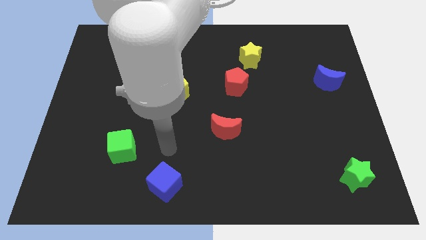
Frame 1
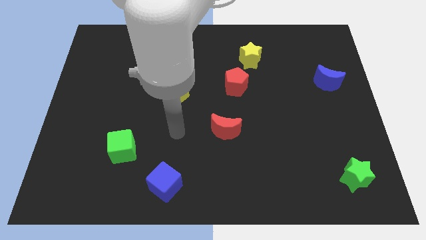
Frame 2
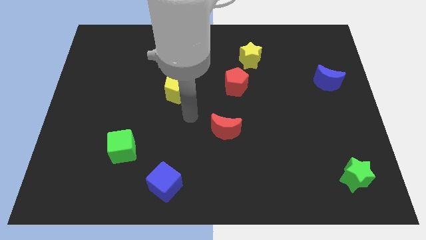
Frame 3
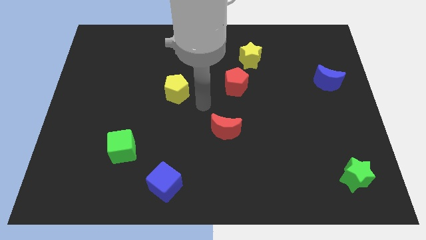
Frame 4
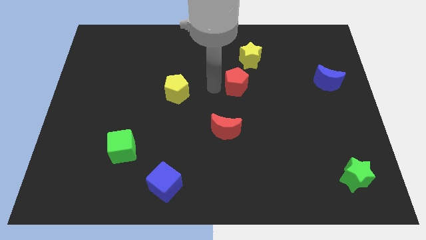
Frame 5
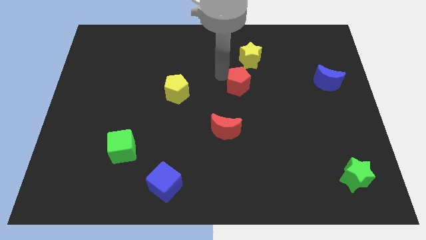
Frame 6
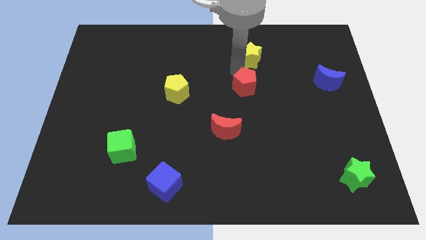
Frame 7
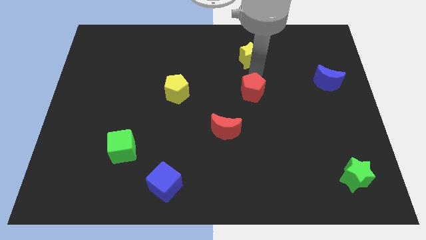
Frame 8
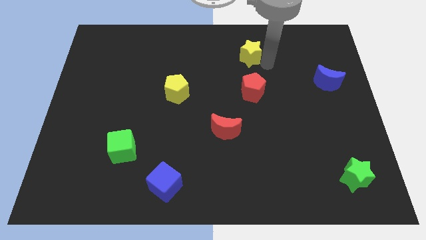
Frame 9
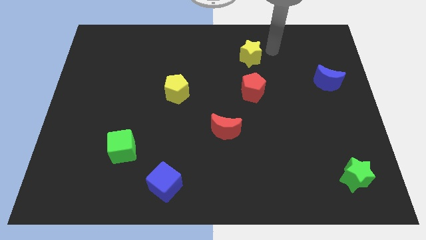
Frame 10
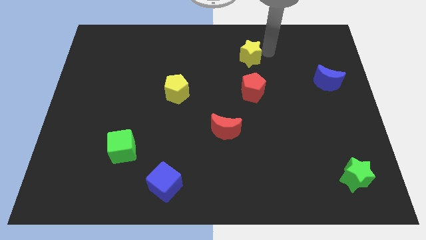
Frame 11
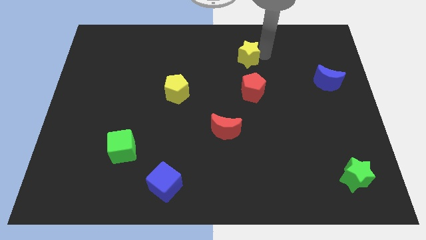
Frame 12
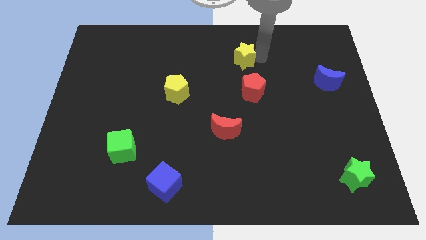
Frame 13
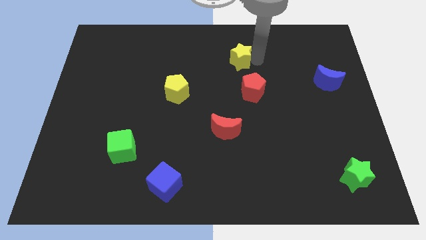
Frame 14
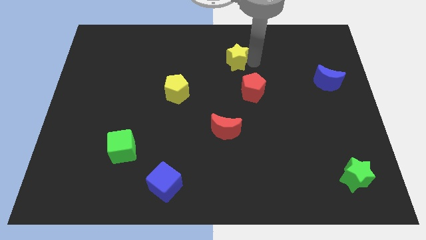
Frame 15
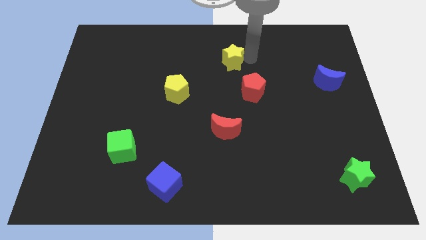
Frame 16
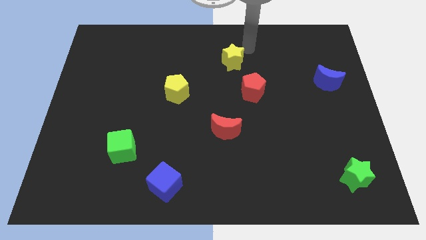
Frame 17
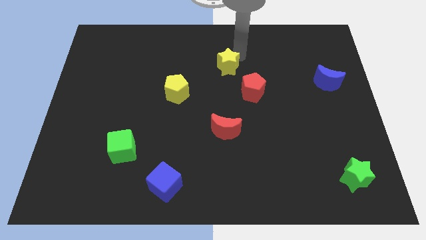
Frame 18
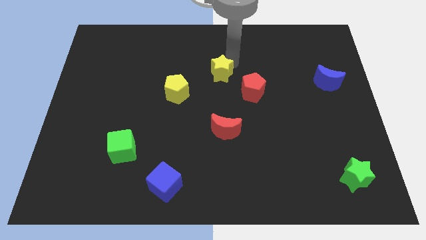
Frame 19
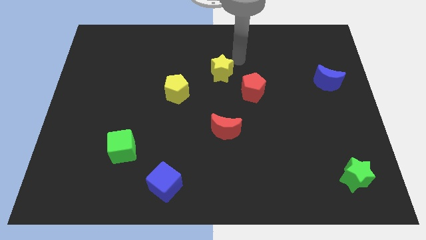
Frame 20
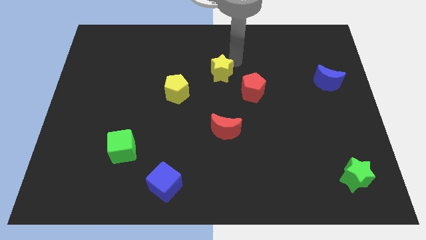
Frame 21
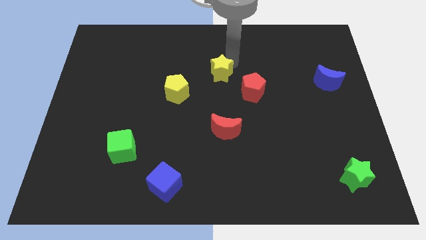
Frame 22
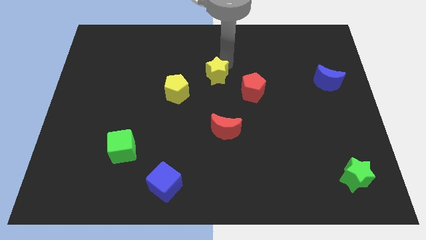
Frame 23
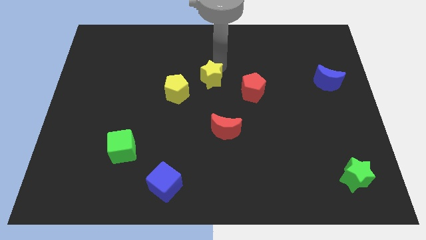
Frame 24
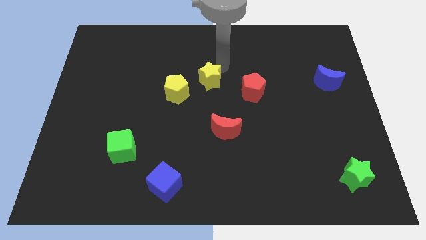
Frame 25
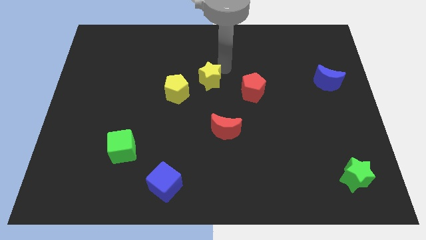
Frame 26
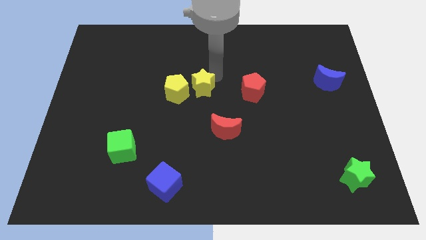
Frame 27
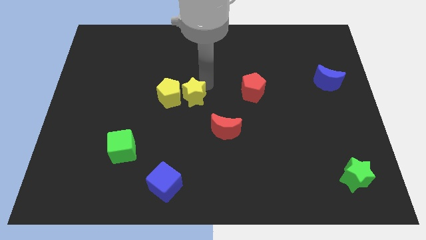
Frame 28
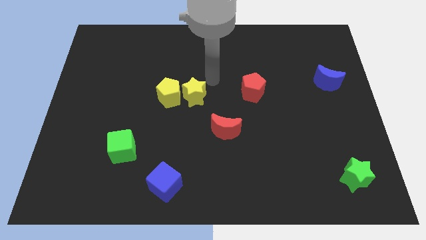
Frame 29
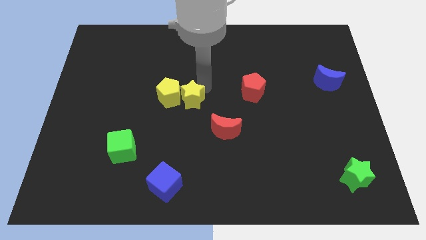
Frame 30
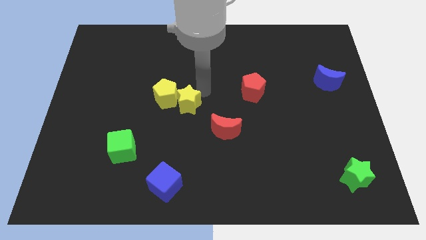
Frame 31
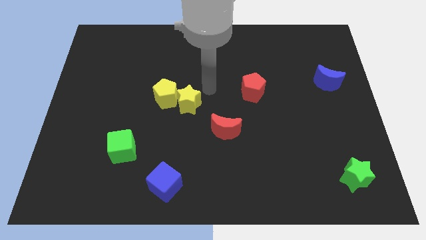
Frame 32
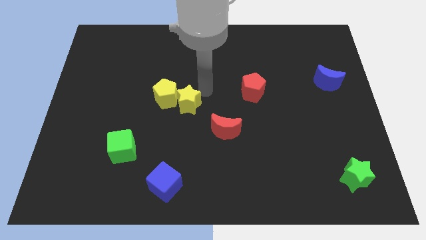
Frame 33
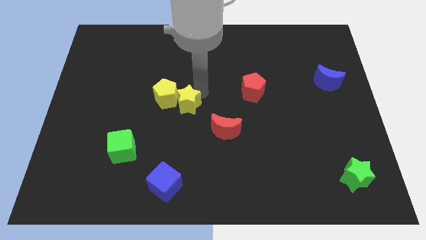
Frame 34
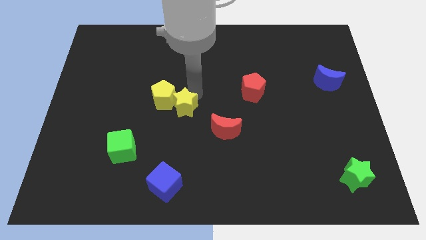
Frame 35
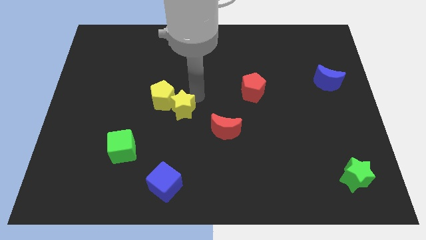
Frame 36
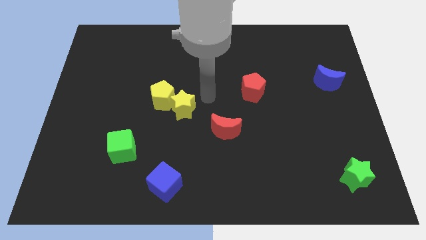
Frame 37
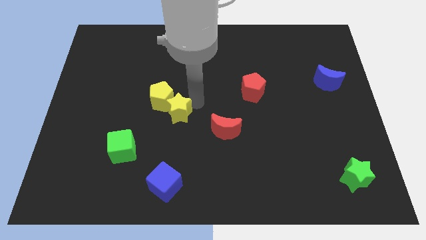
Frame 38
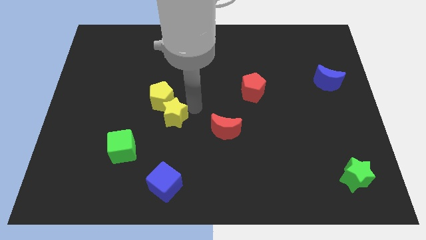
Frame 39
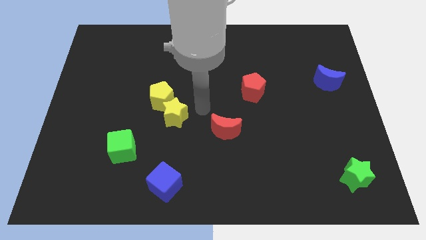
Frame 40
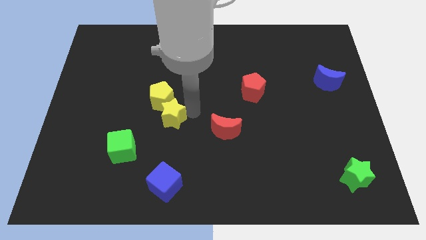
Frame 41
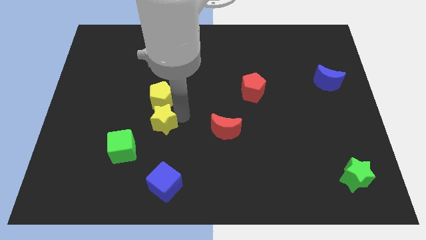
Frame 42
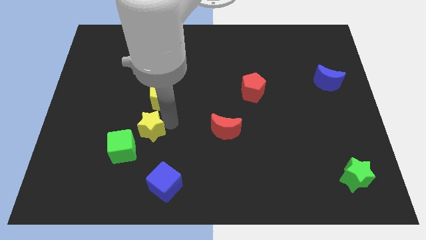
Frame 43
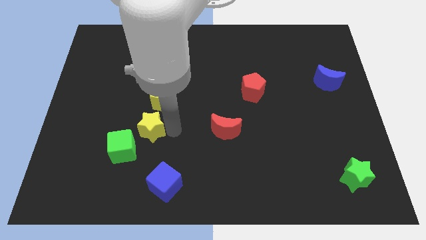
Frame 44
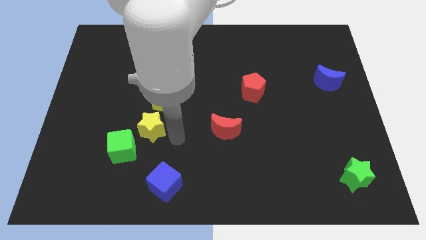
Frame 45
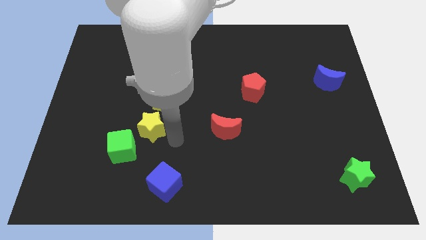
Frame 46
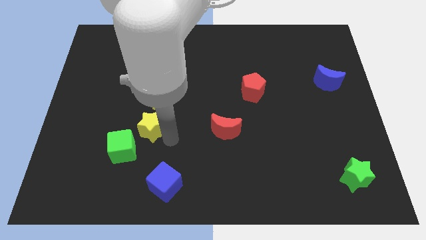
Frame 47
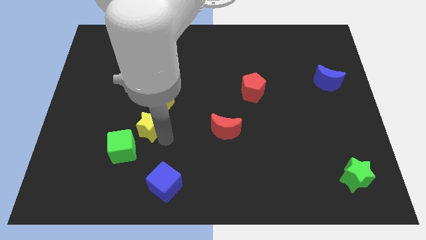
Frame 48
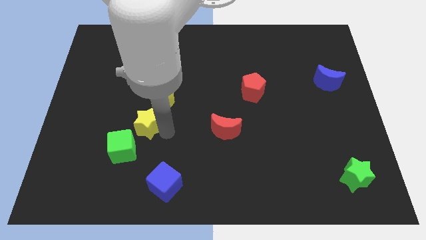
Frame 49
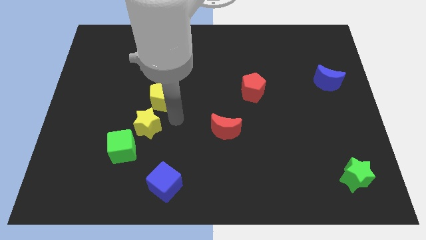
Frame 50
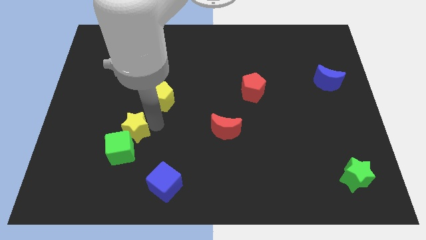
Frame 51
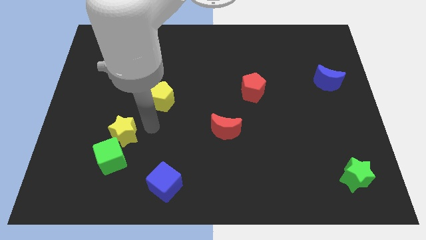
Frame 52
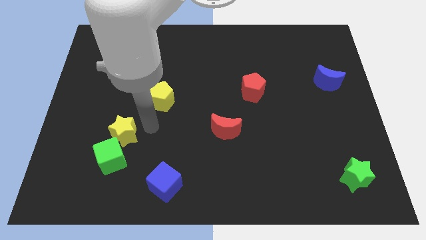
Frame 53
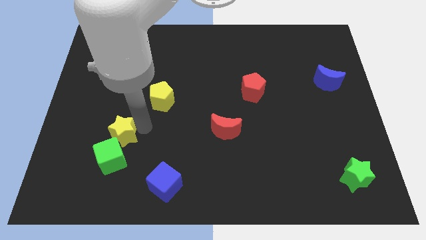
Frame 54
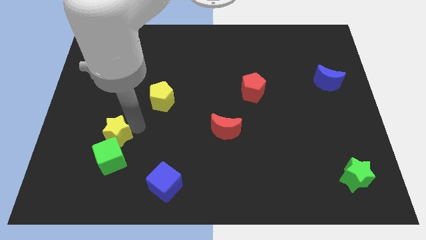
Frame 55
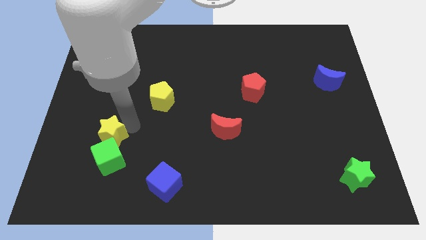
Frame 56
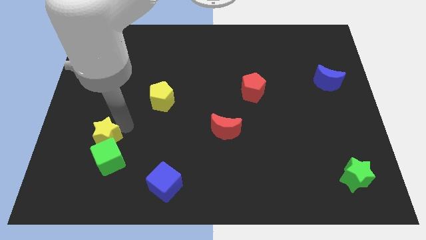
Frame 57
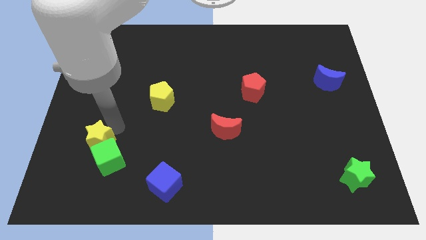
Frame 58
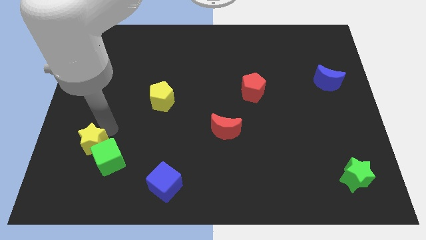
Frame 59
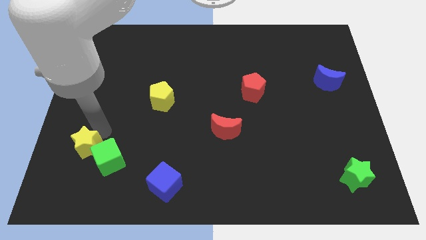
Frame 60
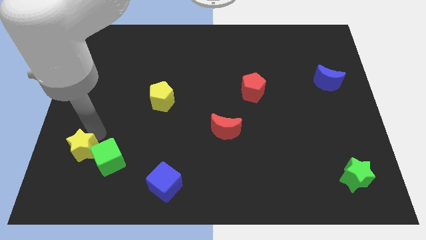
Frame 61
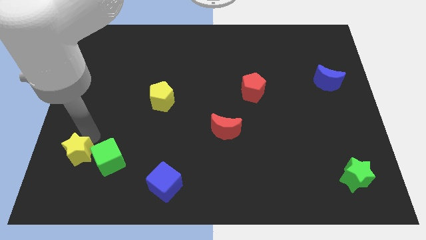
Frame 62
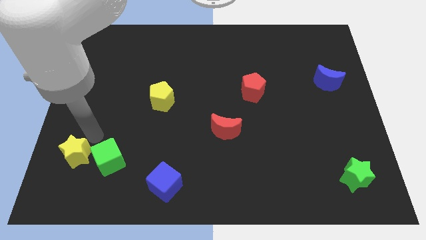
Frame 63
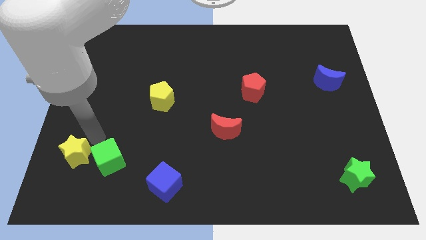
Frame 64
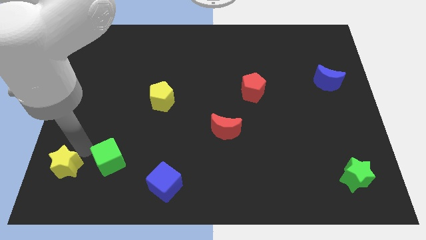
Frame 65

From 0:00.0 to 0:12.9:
slide the yellow star to the bottom left

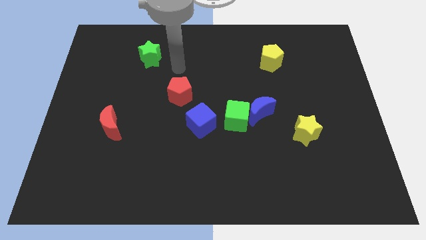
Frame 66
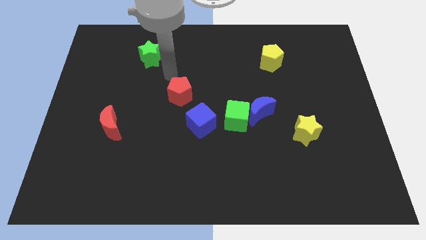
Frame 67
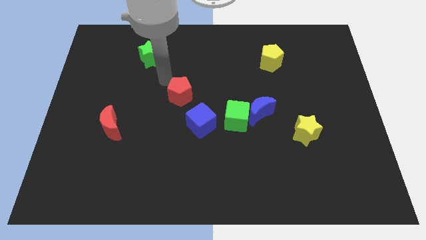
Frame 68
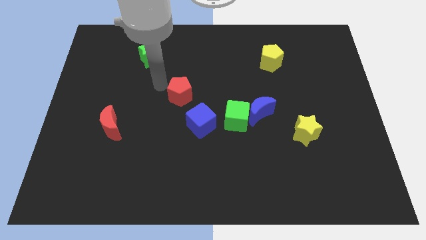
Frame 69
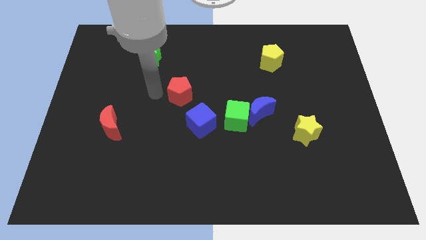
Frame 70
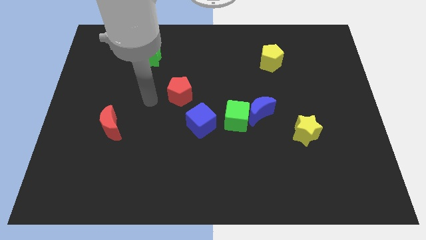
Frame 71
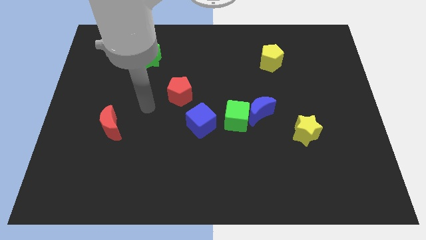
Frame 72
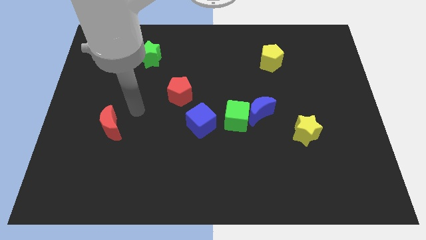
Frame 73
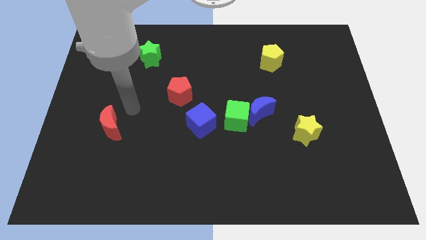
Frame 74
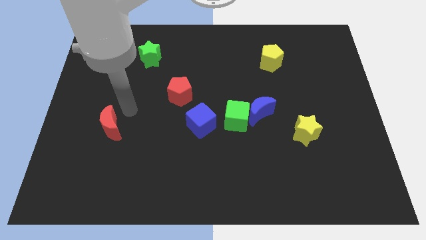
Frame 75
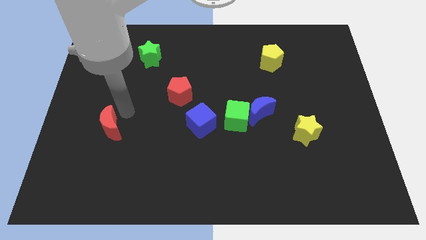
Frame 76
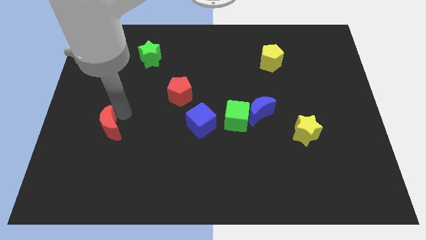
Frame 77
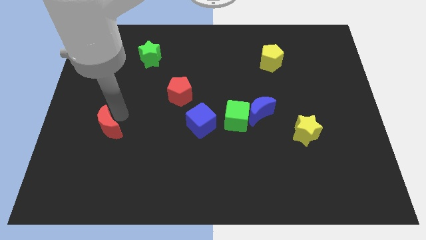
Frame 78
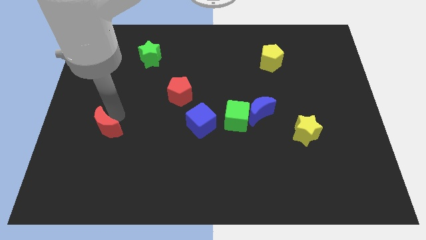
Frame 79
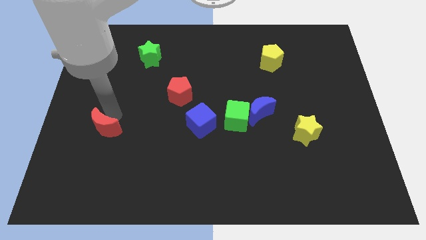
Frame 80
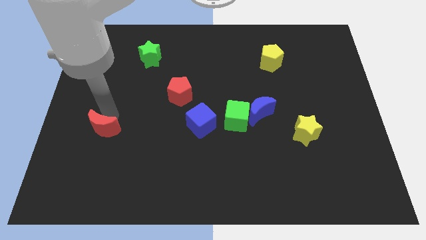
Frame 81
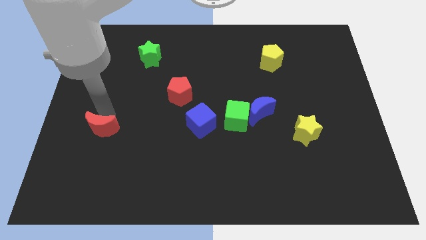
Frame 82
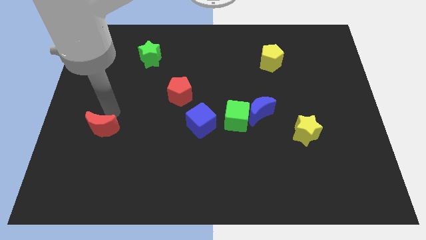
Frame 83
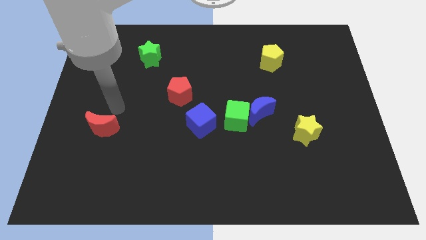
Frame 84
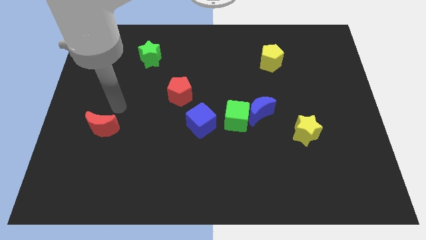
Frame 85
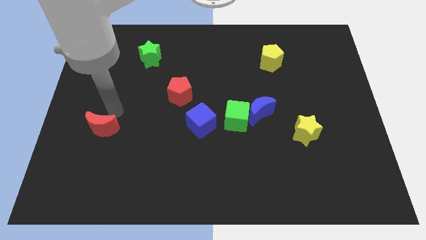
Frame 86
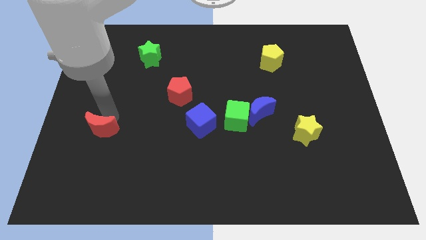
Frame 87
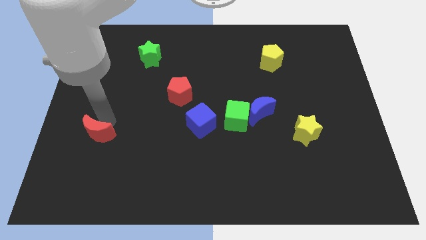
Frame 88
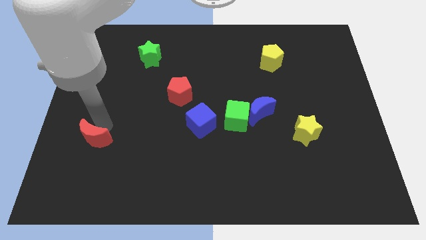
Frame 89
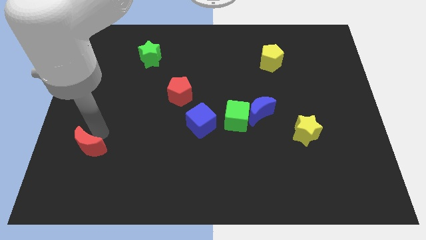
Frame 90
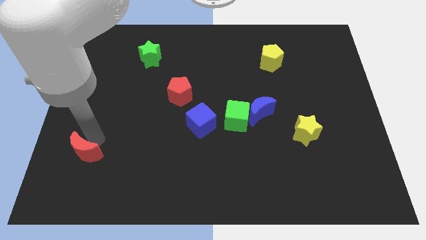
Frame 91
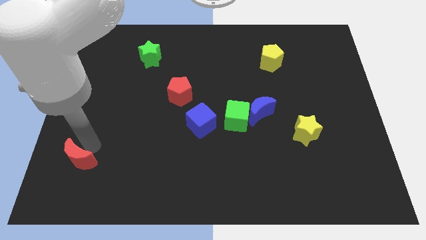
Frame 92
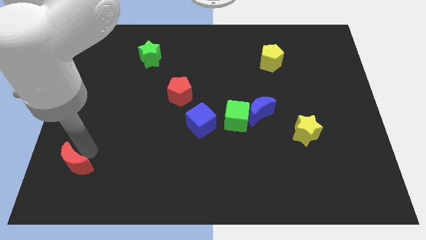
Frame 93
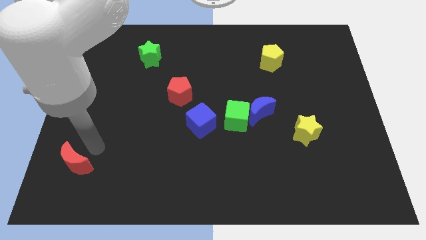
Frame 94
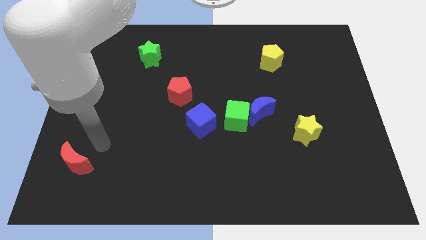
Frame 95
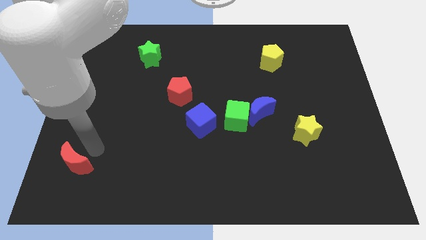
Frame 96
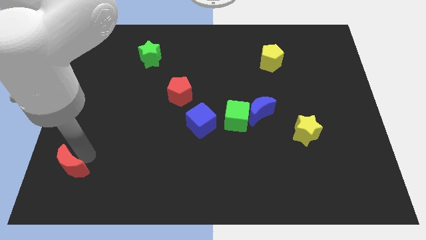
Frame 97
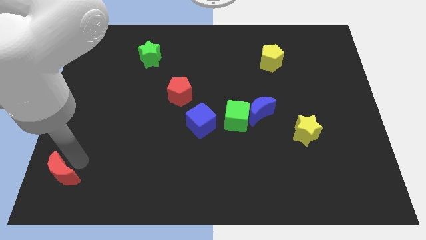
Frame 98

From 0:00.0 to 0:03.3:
move the red moon to the bottom left of the board
